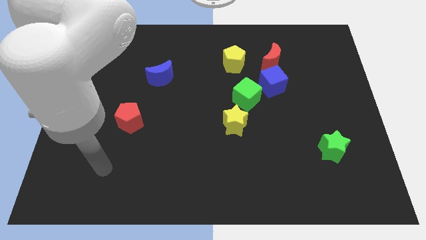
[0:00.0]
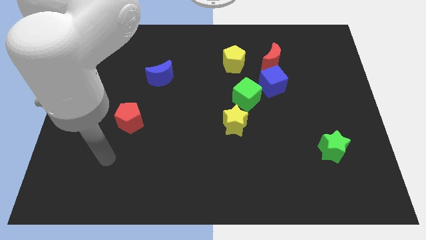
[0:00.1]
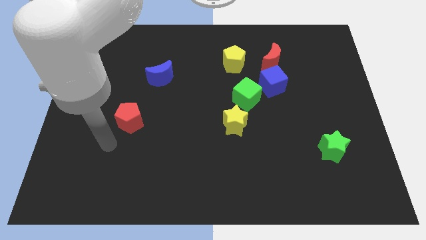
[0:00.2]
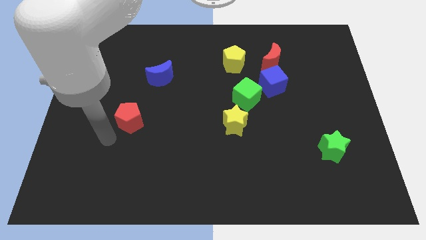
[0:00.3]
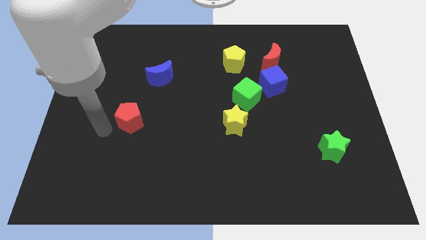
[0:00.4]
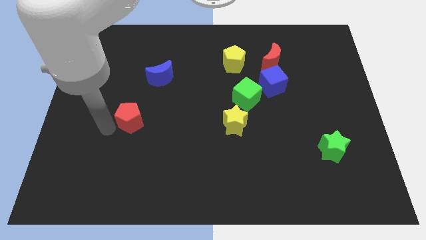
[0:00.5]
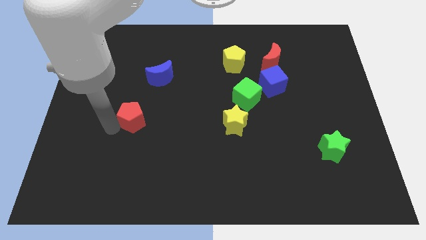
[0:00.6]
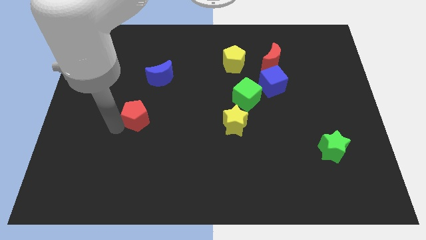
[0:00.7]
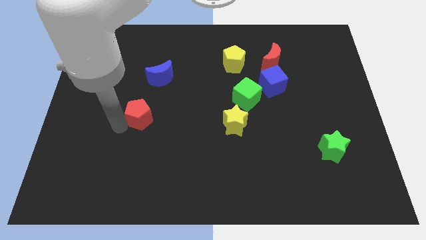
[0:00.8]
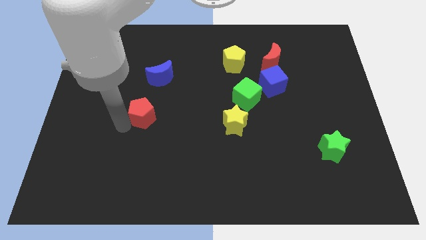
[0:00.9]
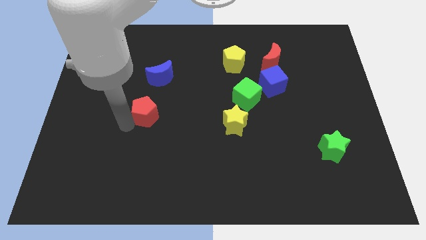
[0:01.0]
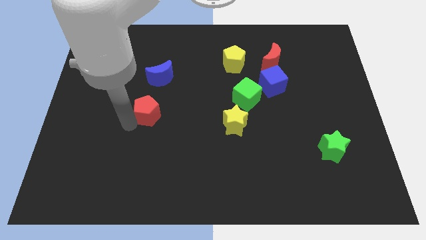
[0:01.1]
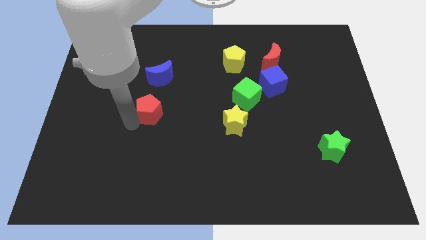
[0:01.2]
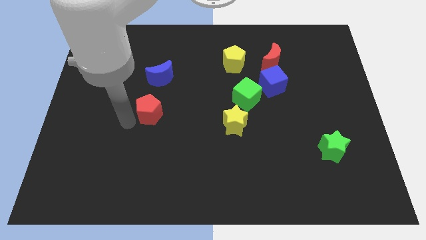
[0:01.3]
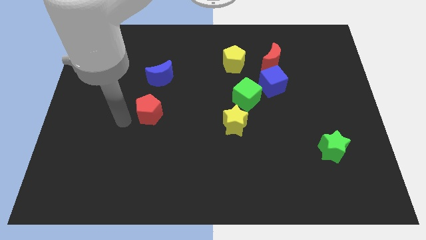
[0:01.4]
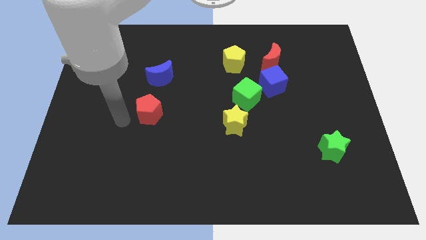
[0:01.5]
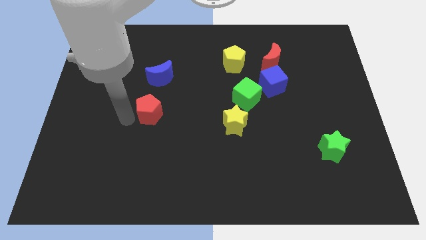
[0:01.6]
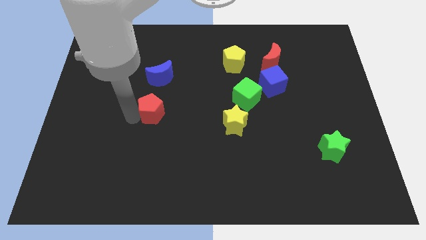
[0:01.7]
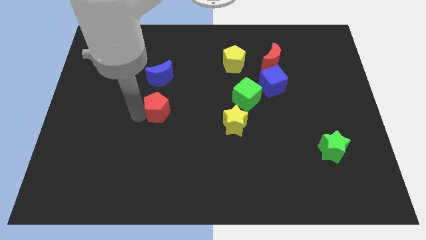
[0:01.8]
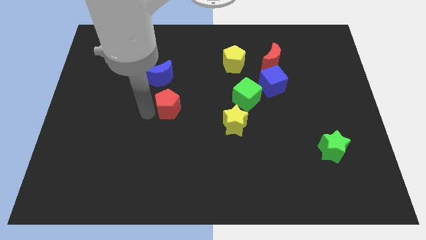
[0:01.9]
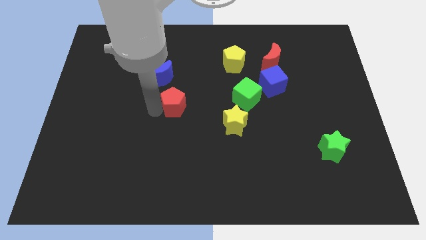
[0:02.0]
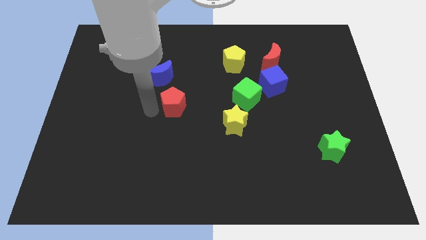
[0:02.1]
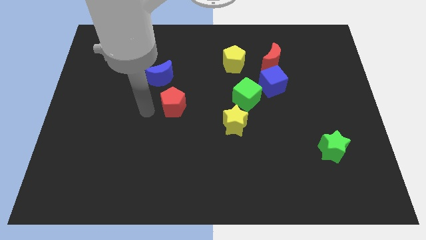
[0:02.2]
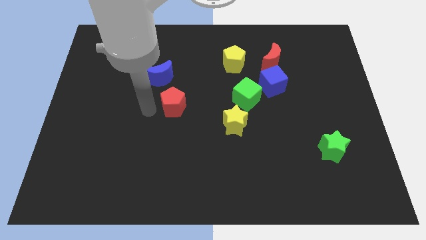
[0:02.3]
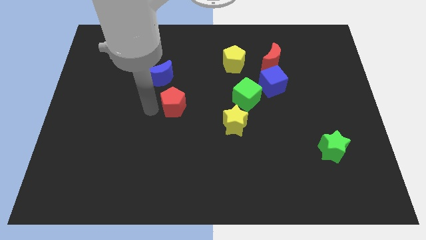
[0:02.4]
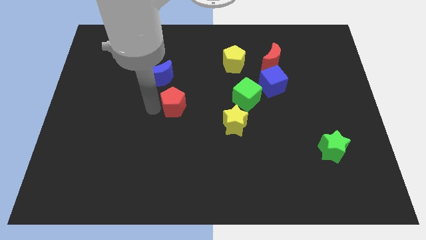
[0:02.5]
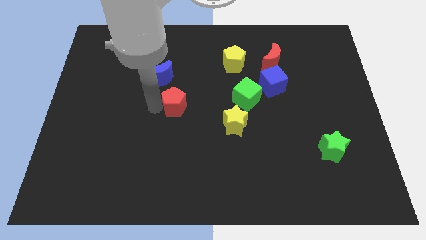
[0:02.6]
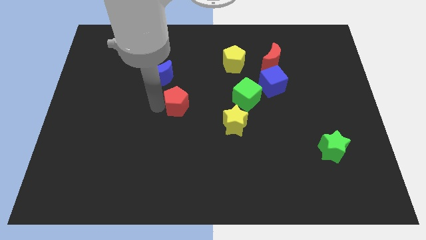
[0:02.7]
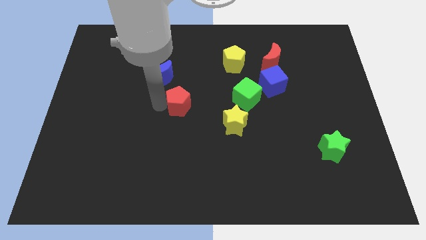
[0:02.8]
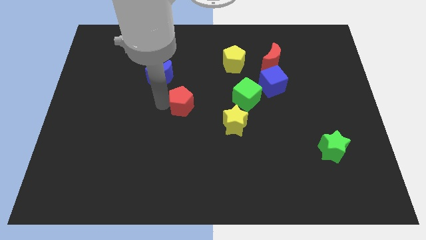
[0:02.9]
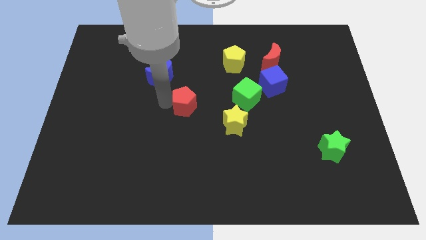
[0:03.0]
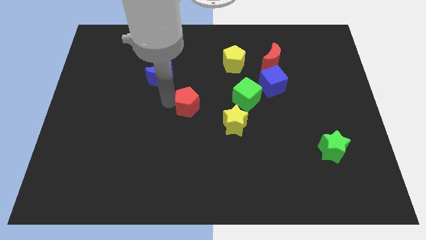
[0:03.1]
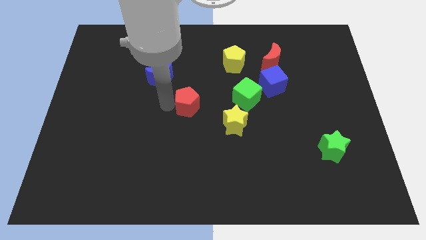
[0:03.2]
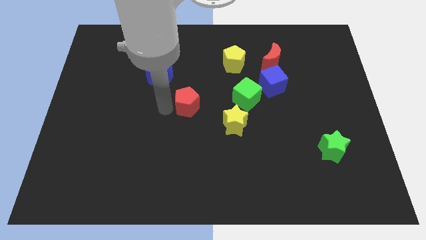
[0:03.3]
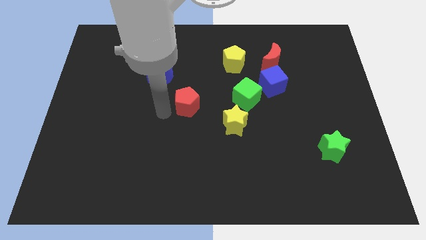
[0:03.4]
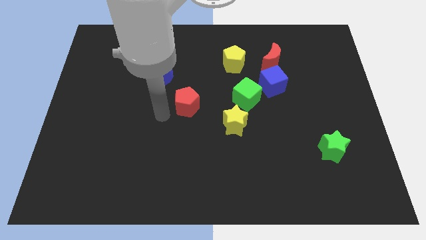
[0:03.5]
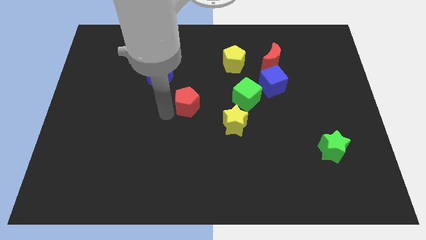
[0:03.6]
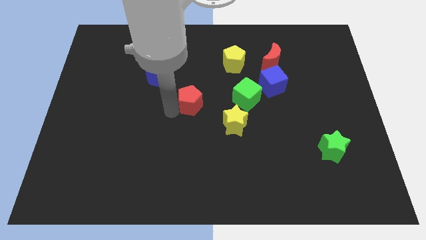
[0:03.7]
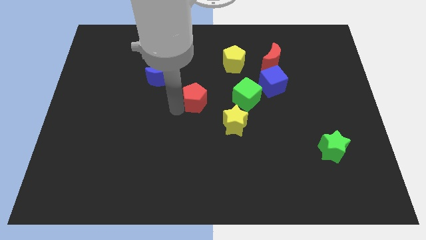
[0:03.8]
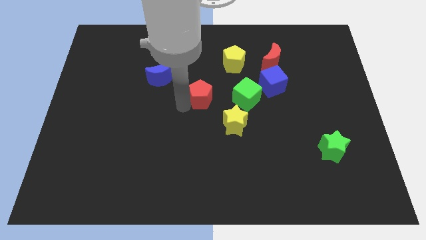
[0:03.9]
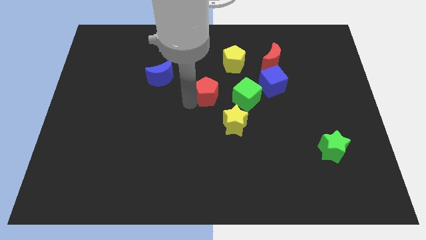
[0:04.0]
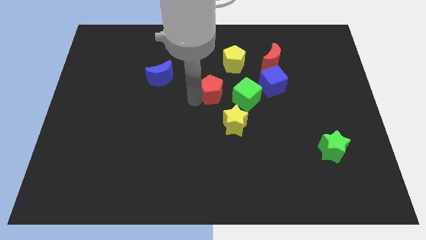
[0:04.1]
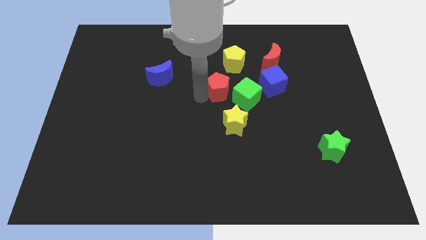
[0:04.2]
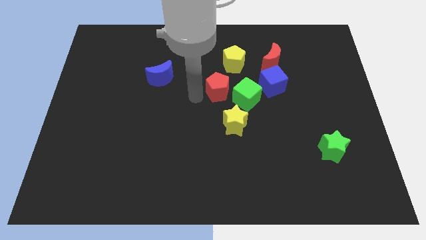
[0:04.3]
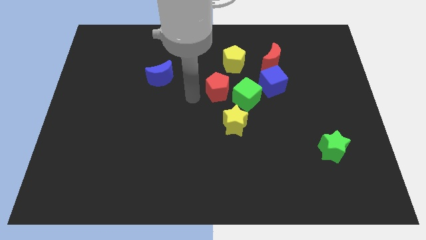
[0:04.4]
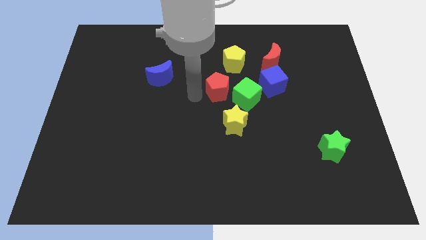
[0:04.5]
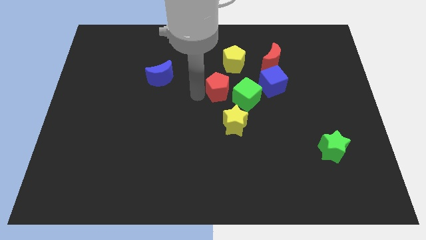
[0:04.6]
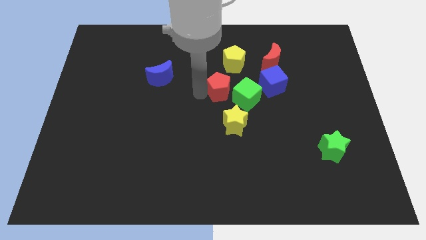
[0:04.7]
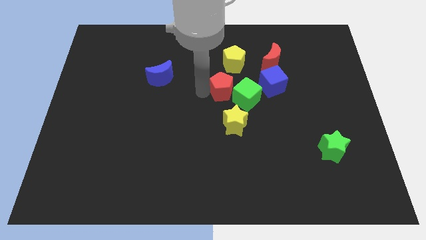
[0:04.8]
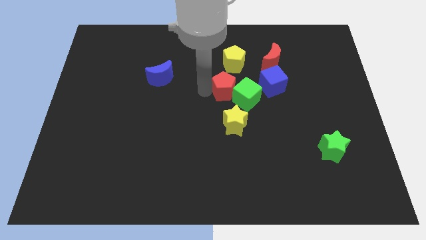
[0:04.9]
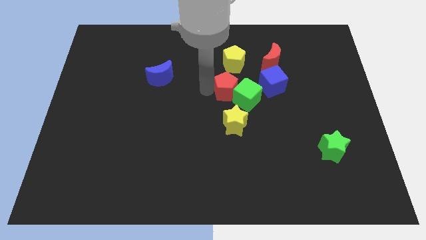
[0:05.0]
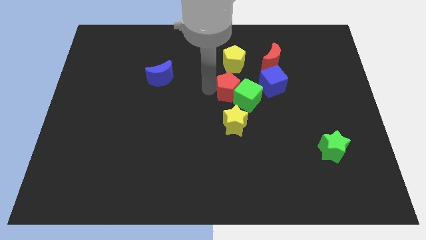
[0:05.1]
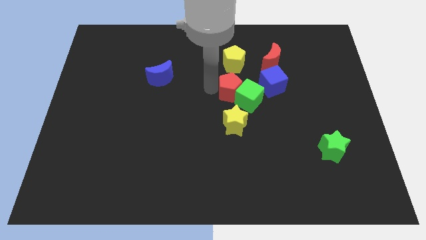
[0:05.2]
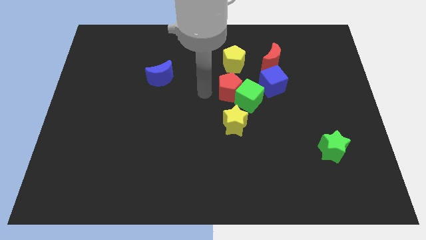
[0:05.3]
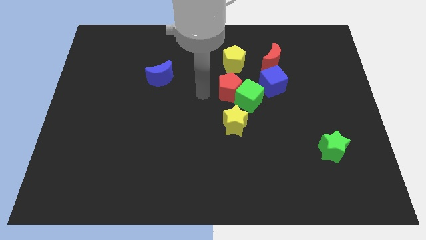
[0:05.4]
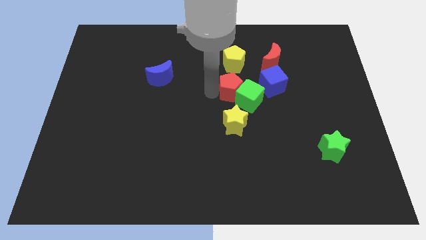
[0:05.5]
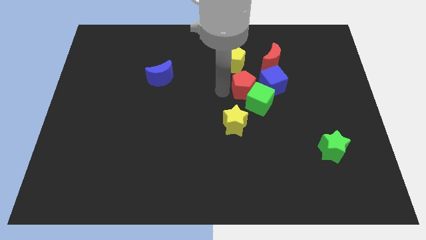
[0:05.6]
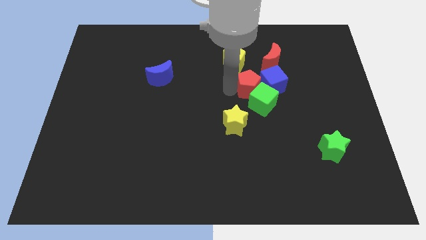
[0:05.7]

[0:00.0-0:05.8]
put the red pentagon to the blue cube

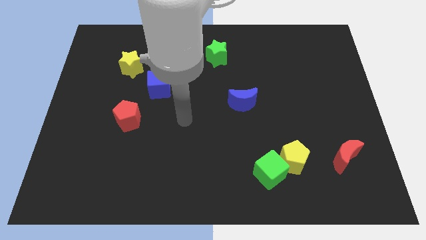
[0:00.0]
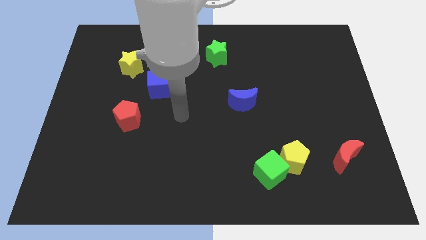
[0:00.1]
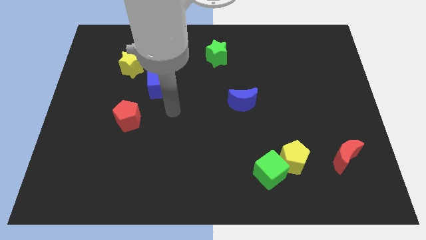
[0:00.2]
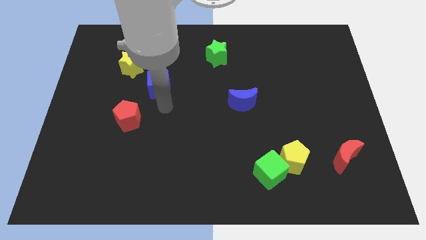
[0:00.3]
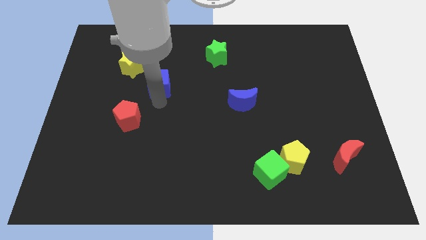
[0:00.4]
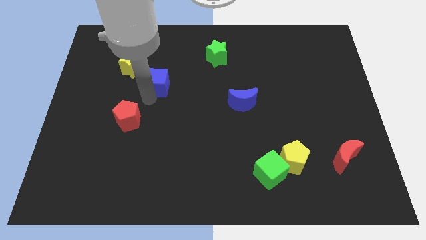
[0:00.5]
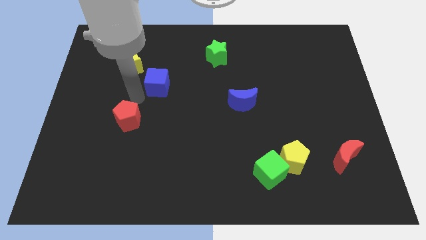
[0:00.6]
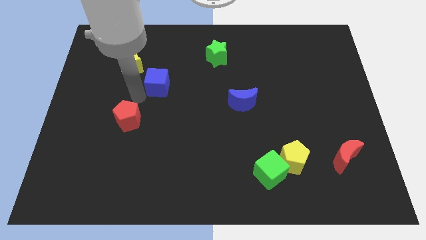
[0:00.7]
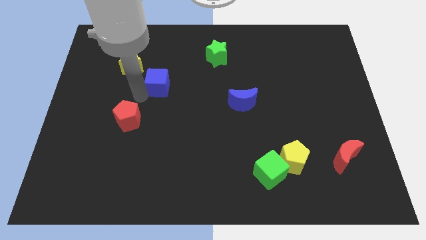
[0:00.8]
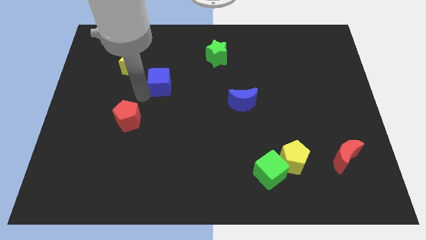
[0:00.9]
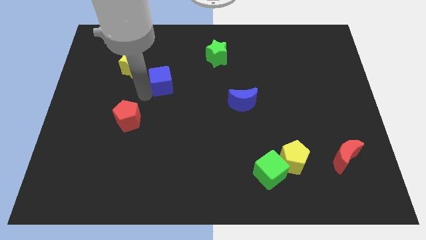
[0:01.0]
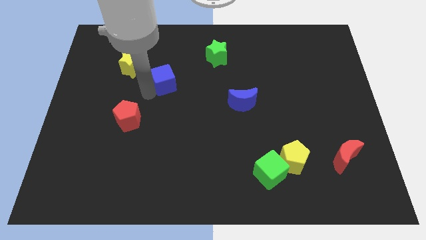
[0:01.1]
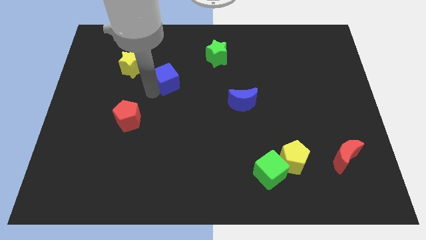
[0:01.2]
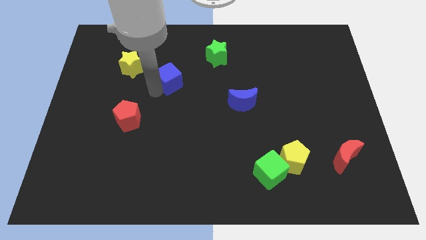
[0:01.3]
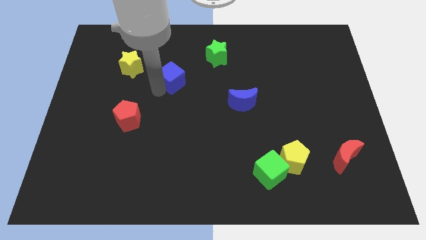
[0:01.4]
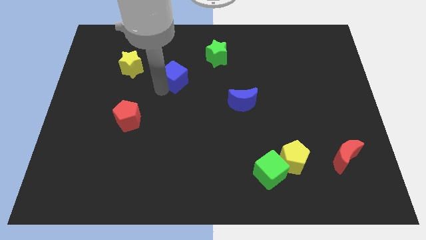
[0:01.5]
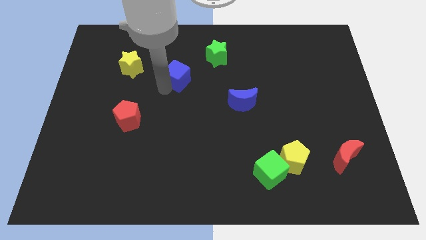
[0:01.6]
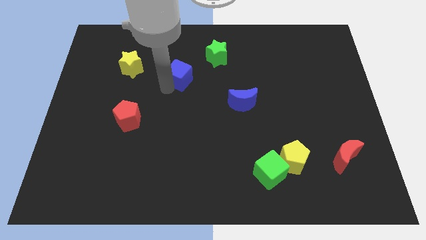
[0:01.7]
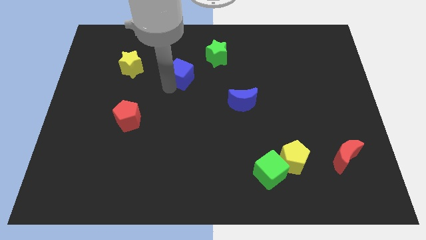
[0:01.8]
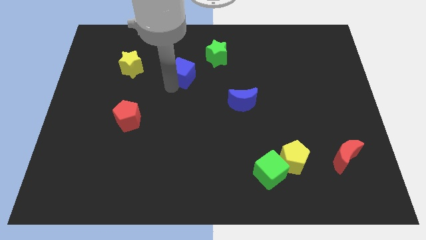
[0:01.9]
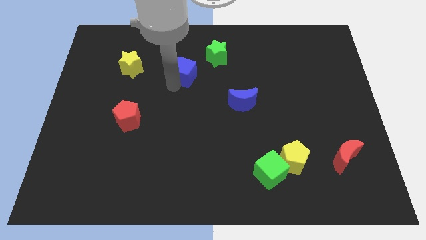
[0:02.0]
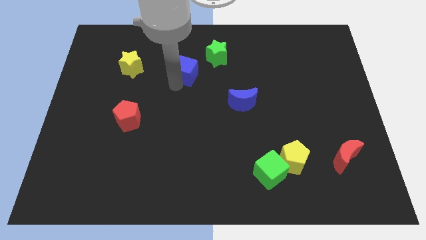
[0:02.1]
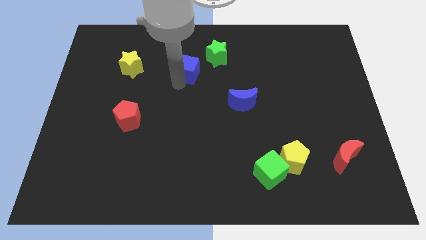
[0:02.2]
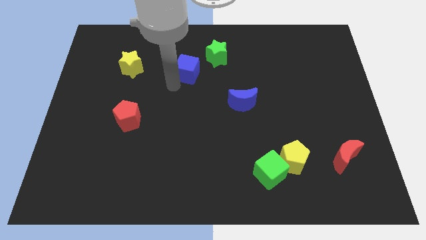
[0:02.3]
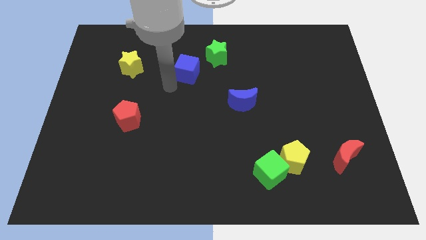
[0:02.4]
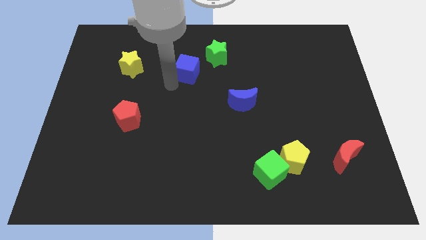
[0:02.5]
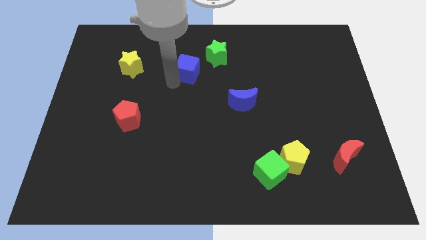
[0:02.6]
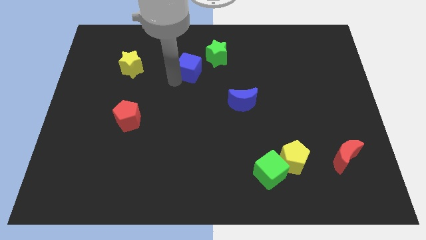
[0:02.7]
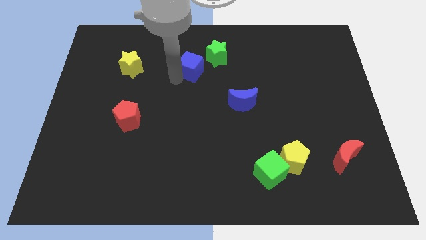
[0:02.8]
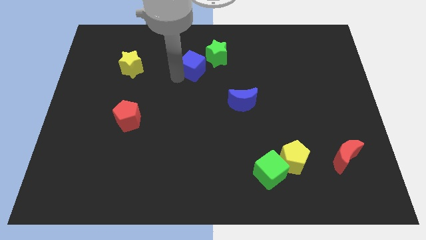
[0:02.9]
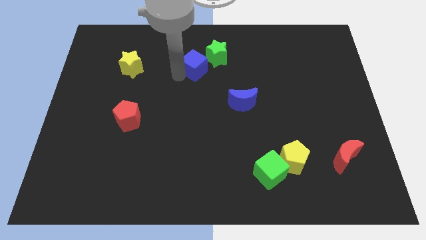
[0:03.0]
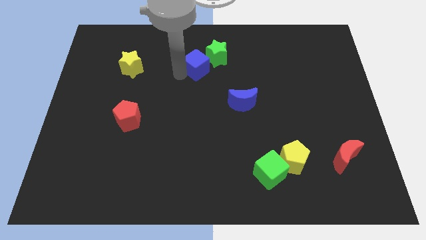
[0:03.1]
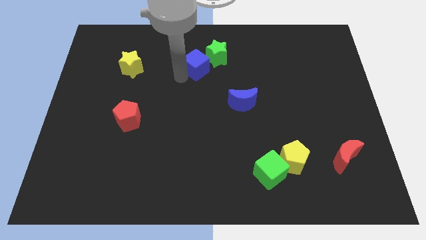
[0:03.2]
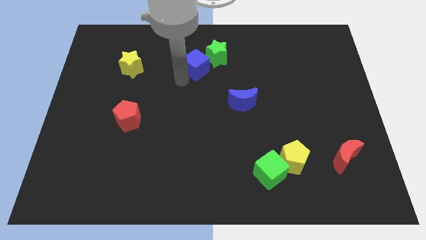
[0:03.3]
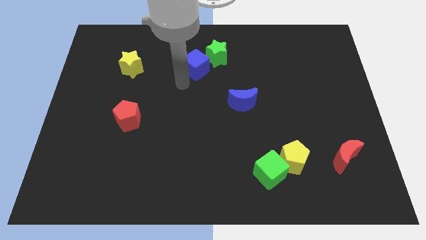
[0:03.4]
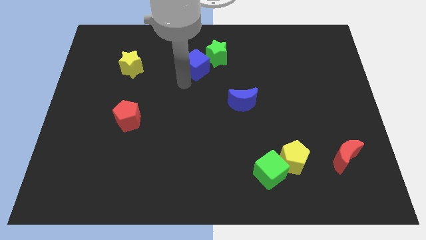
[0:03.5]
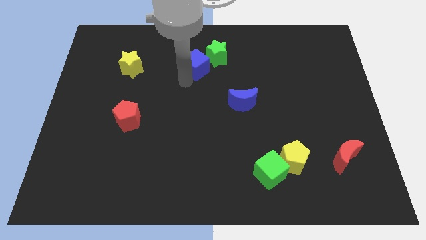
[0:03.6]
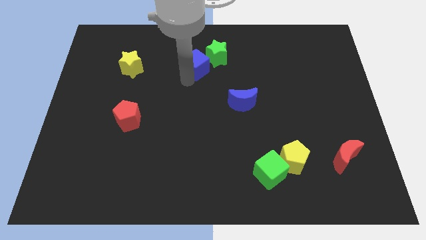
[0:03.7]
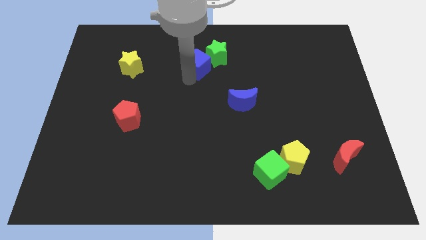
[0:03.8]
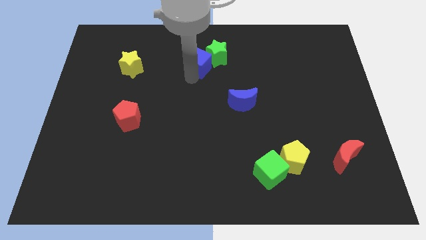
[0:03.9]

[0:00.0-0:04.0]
push the blue cube to the green star
